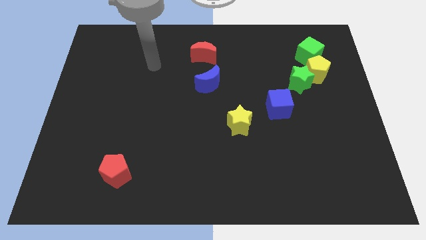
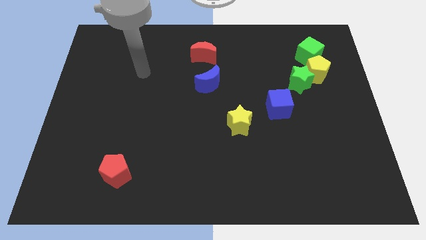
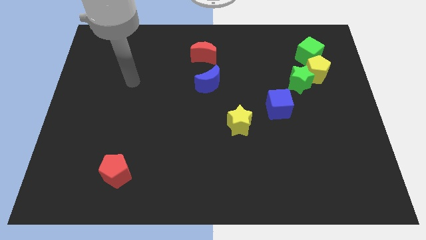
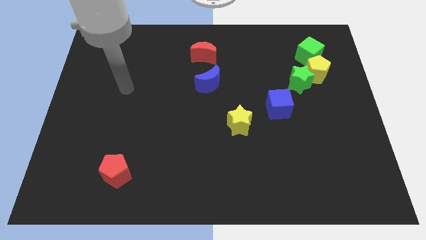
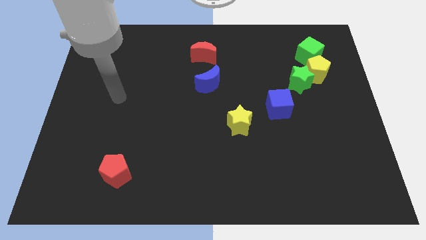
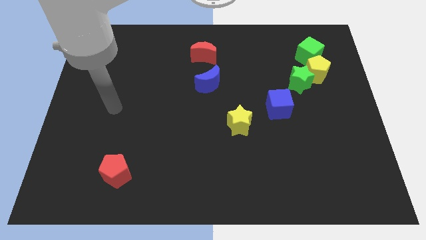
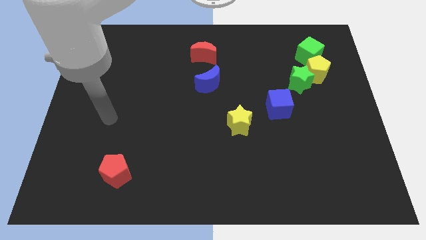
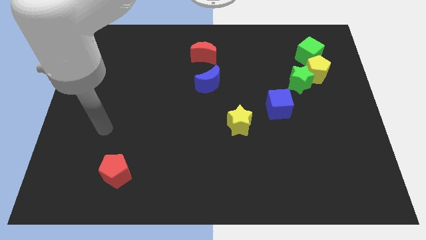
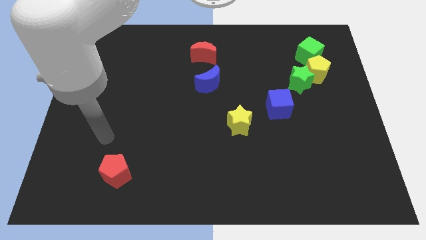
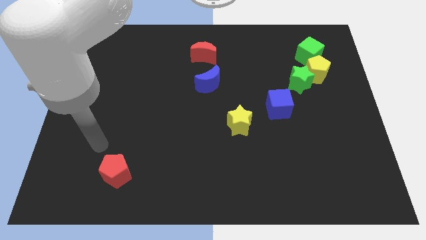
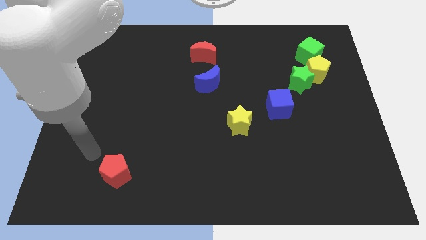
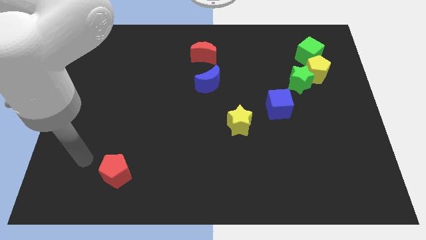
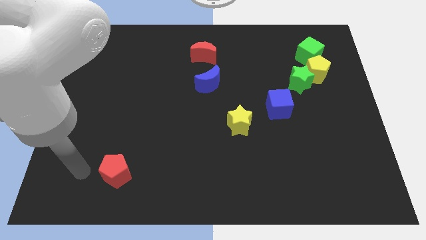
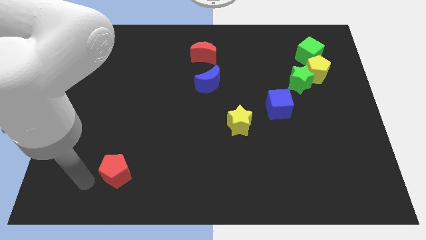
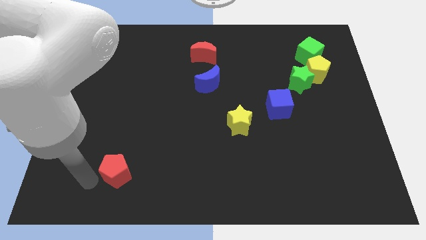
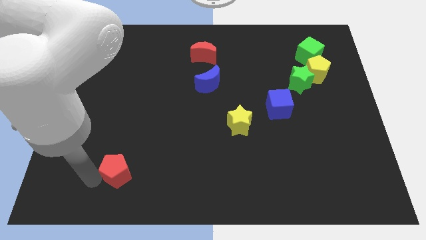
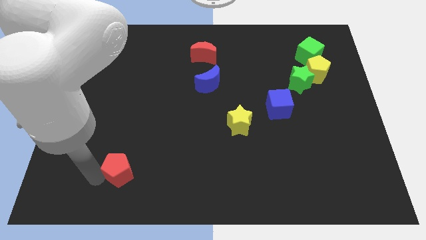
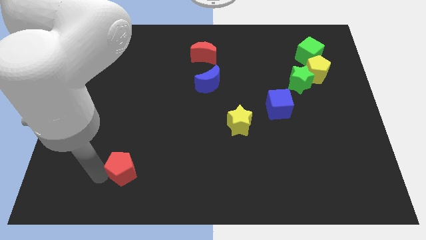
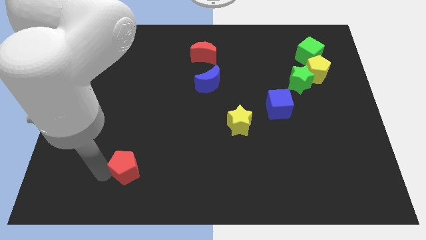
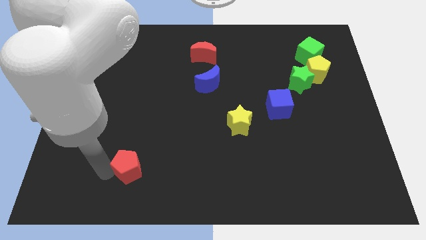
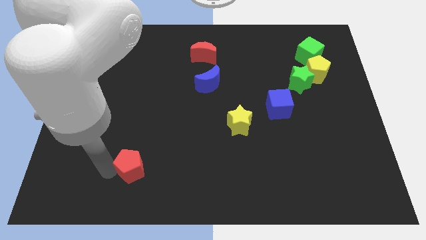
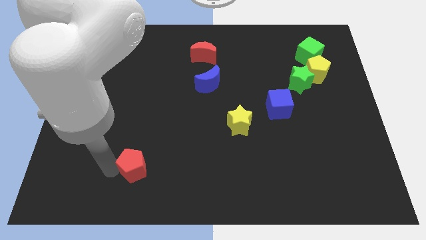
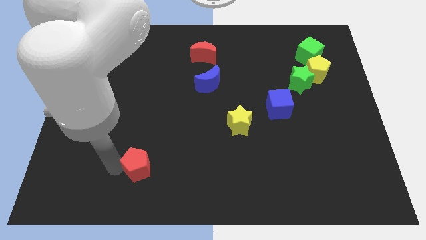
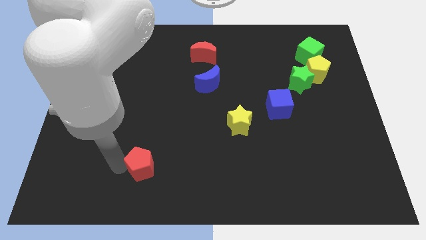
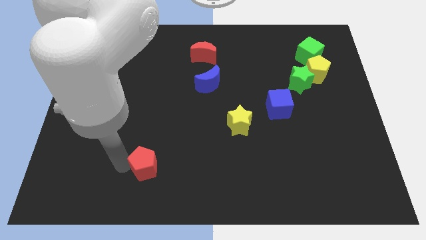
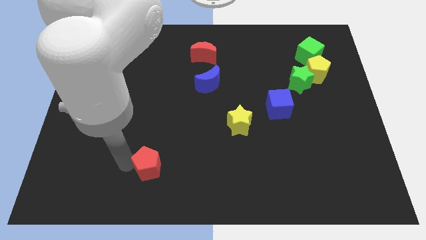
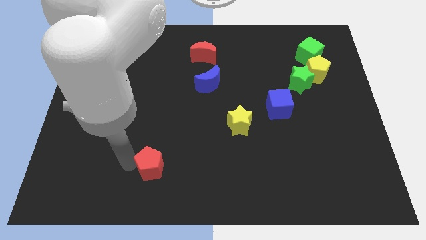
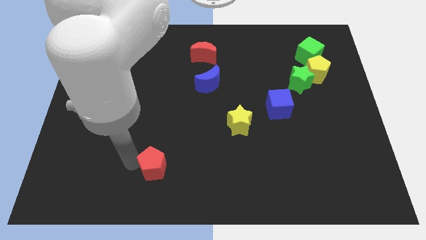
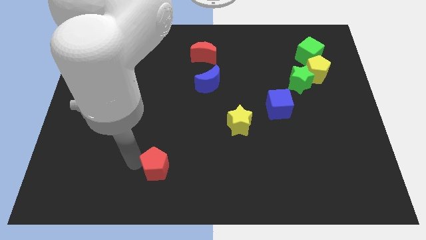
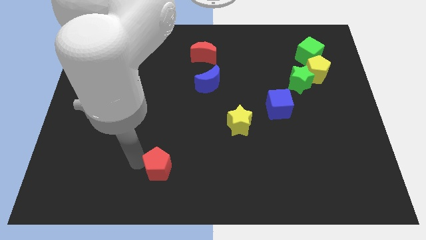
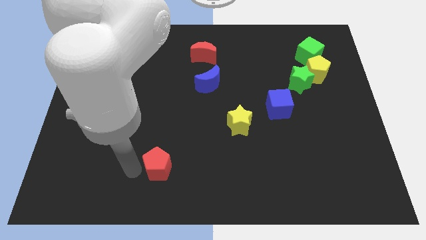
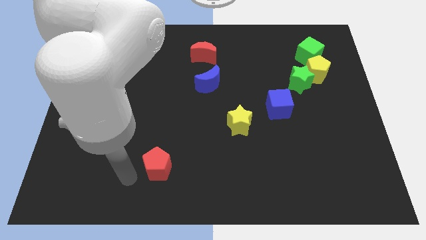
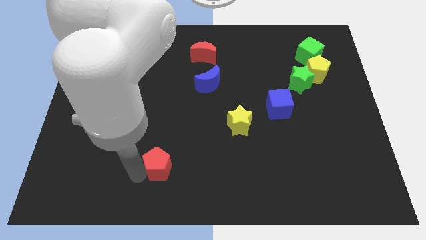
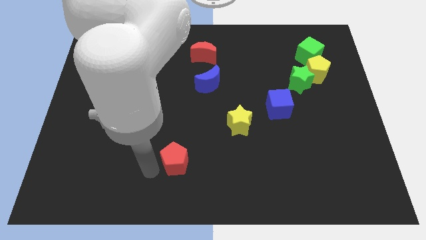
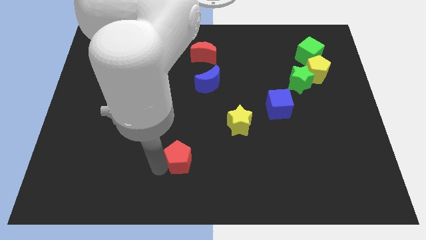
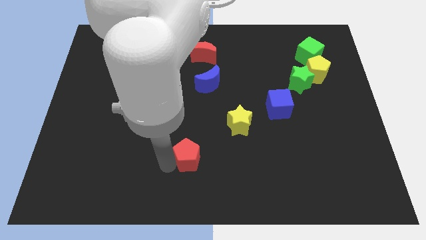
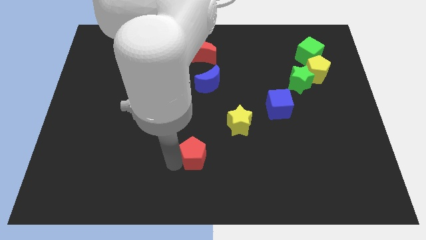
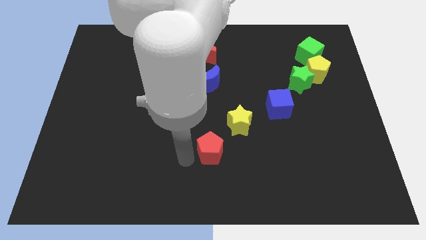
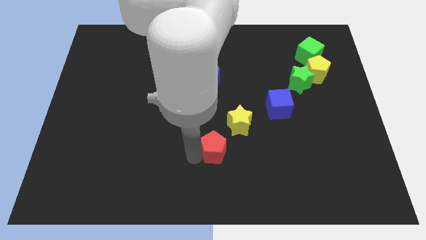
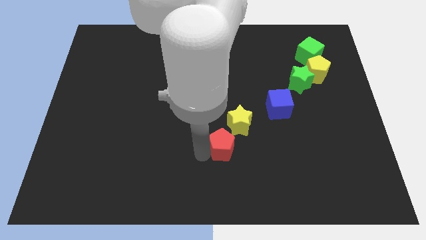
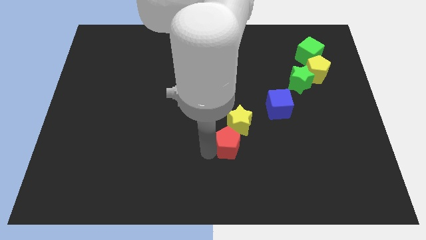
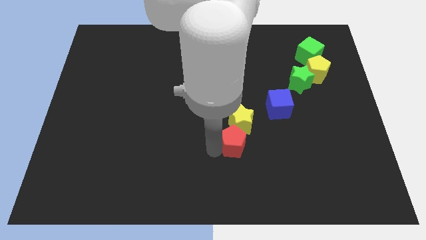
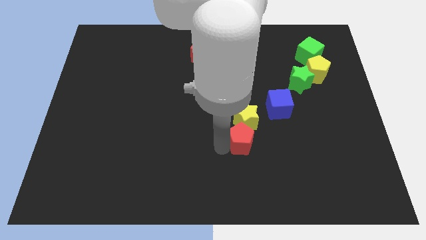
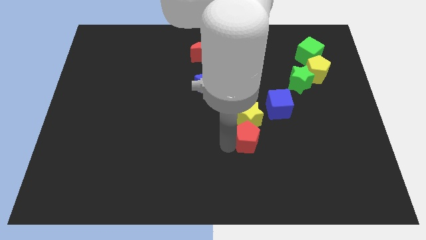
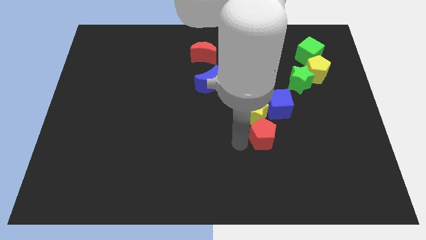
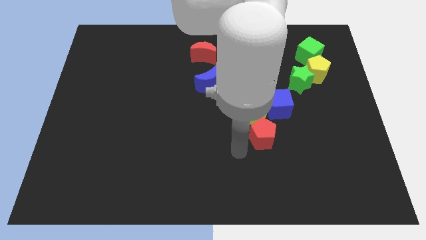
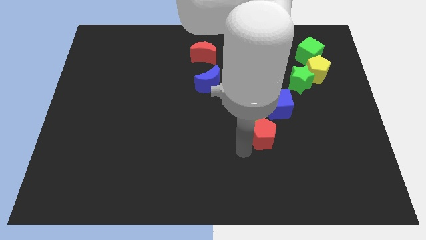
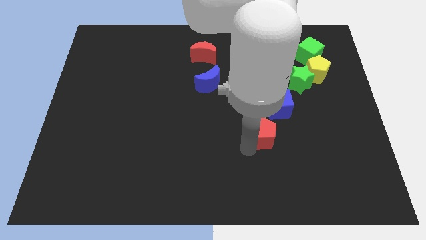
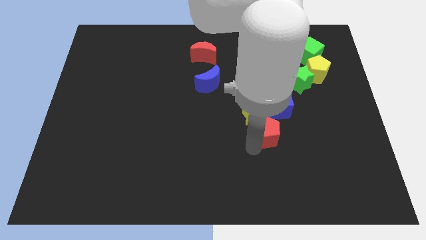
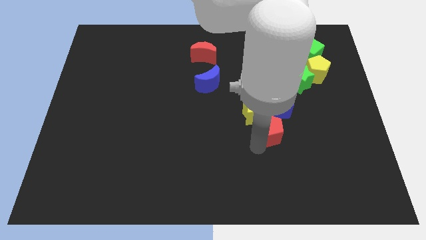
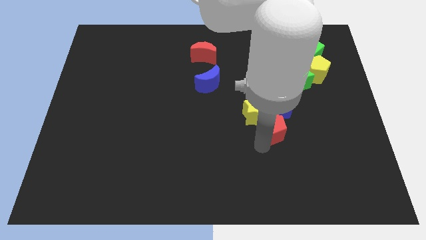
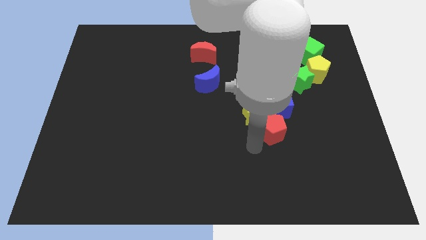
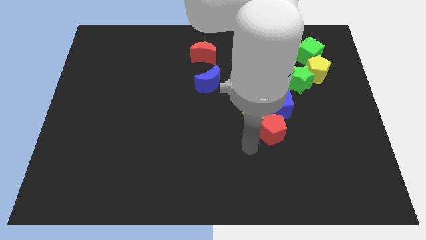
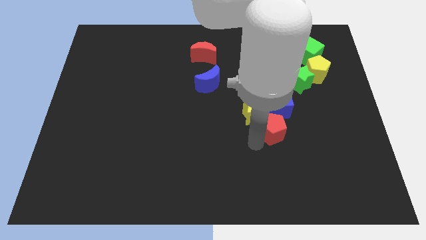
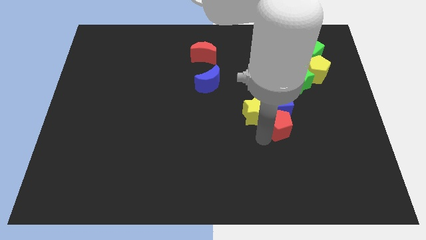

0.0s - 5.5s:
move the red pentagon right of the yellow star

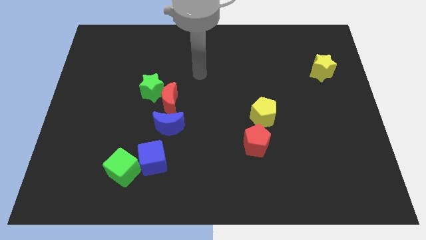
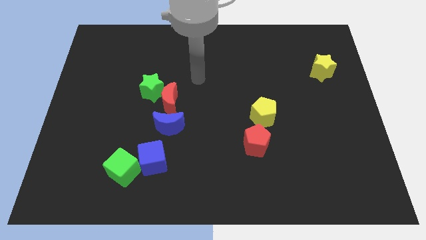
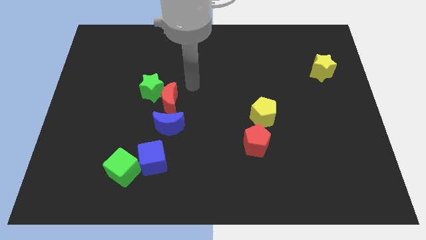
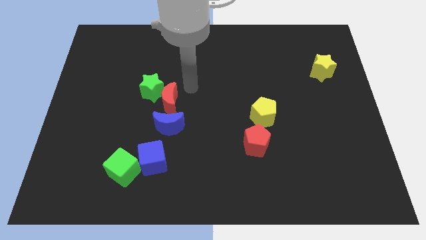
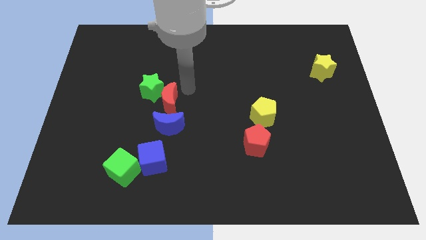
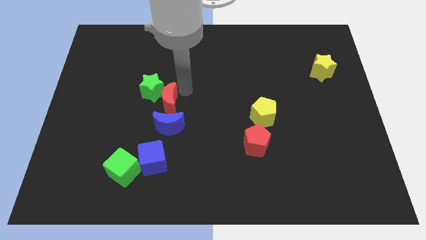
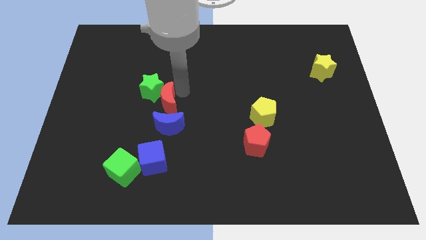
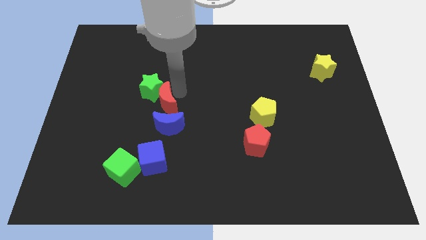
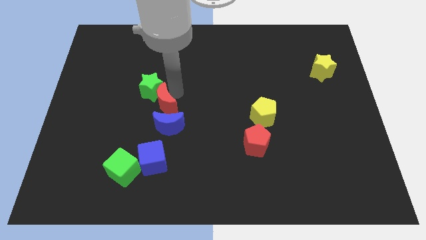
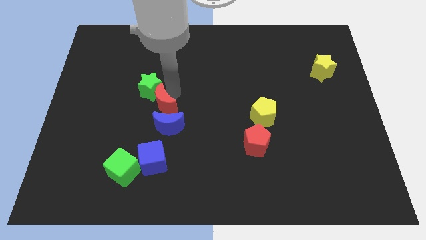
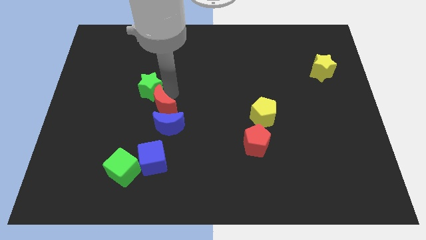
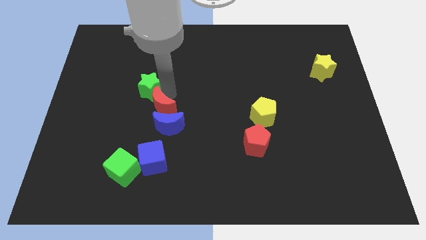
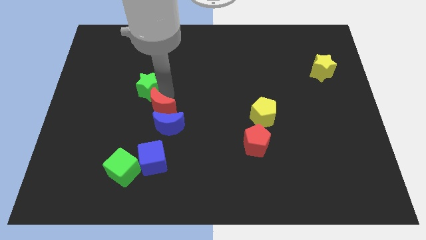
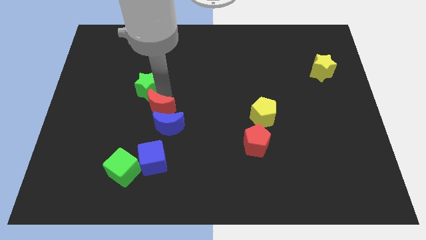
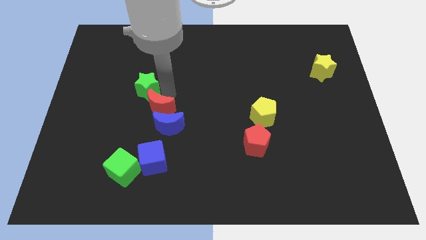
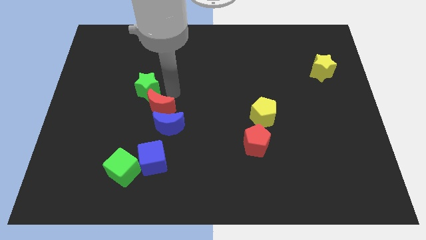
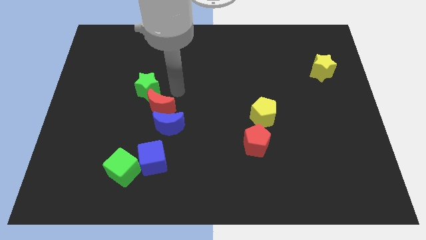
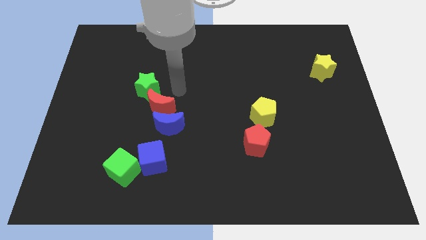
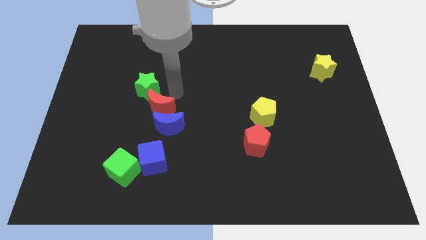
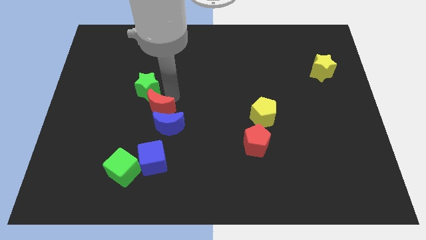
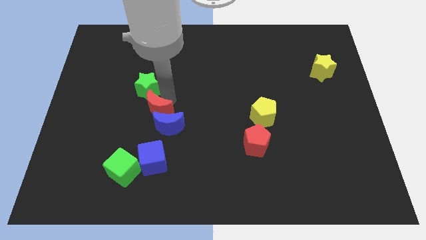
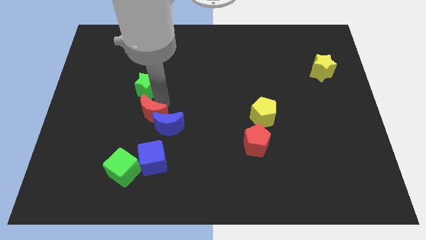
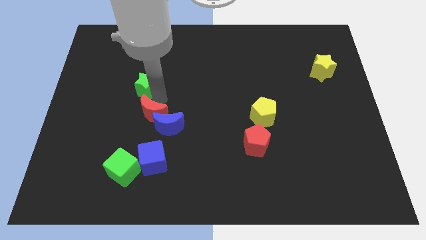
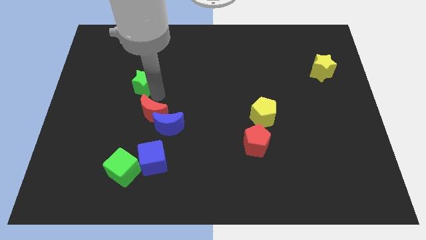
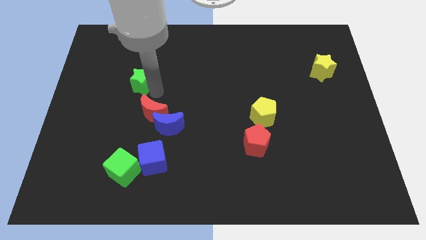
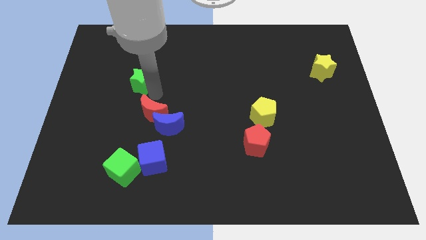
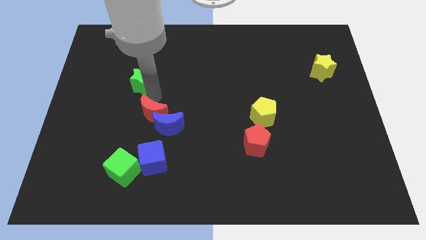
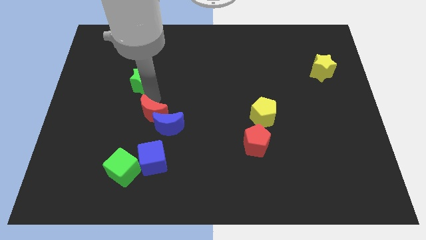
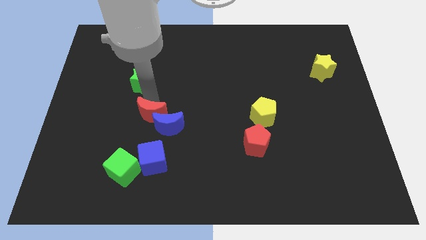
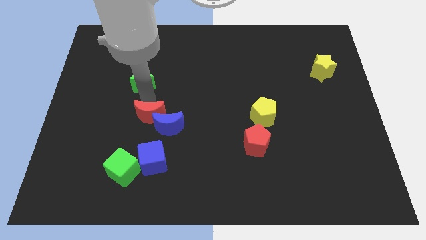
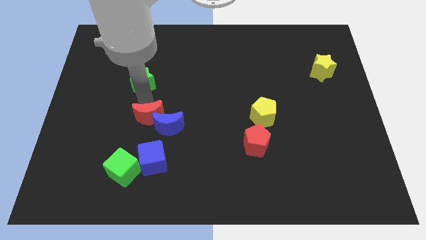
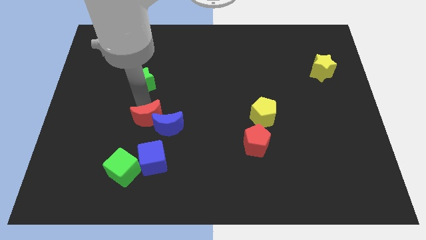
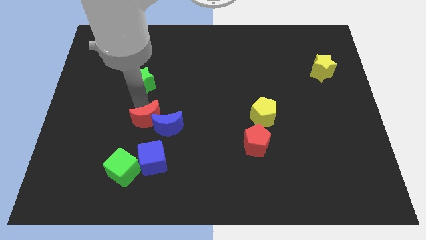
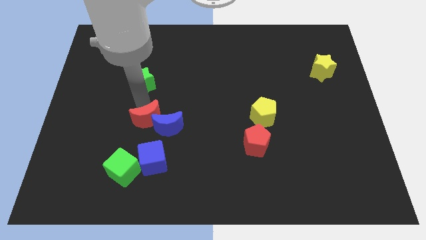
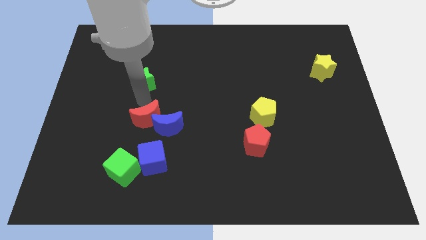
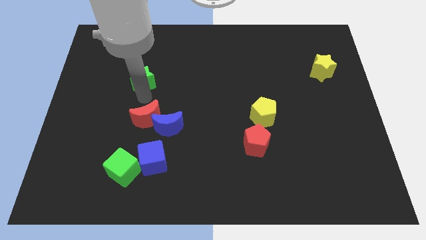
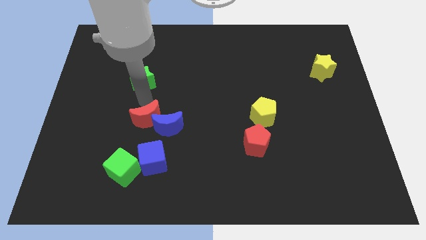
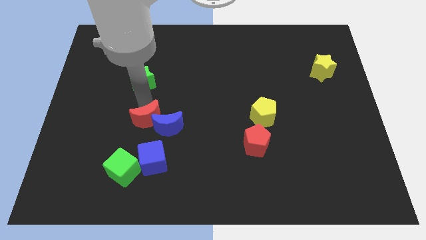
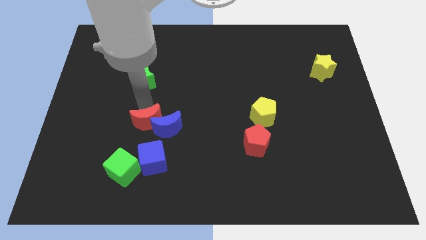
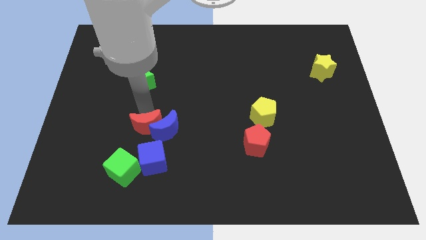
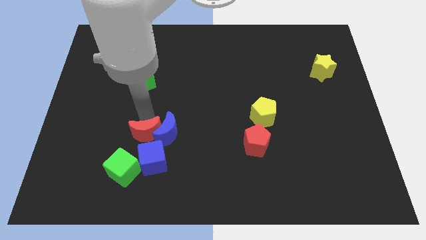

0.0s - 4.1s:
put the red moon to the top right of the green cube
